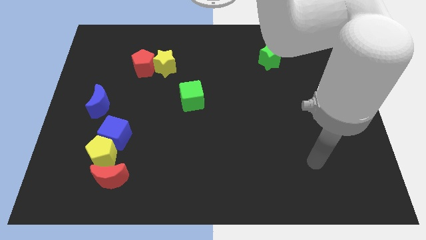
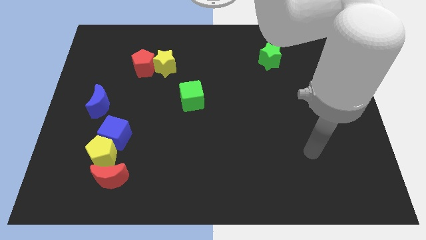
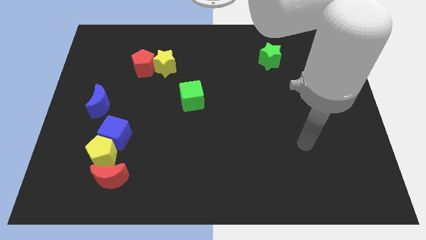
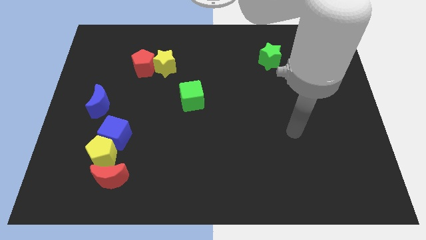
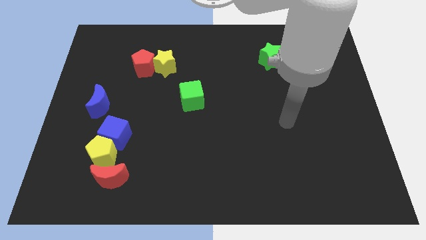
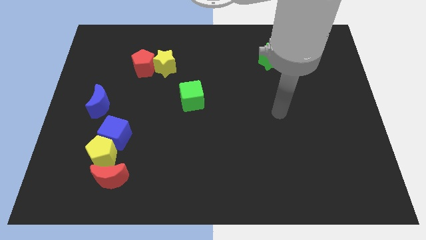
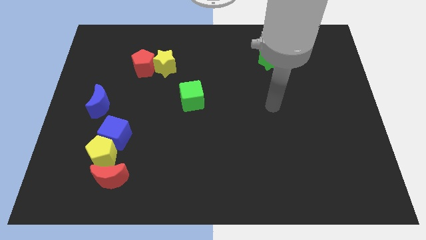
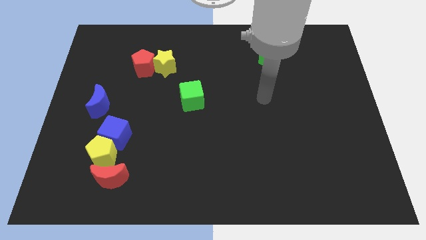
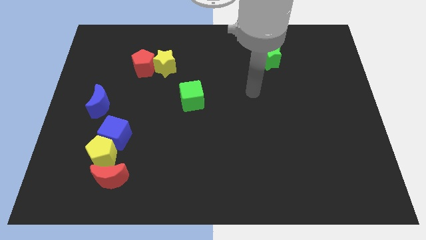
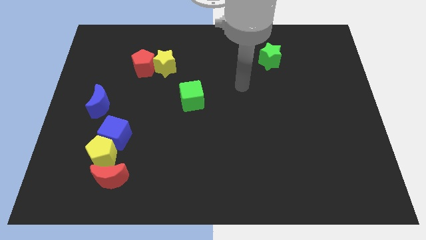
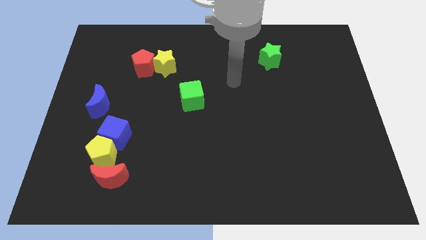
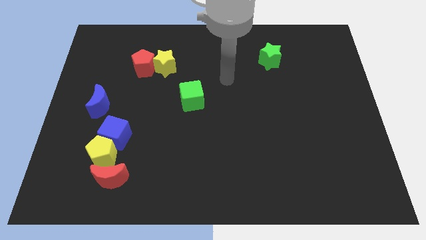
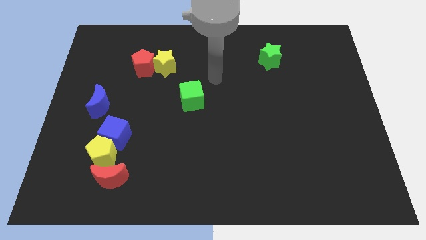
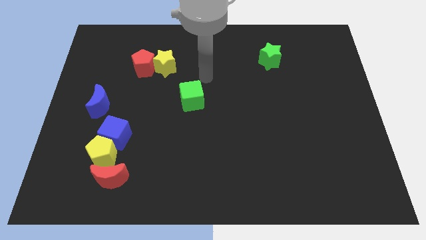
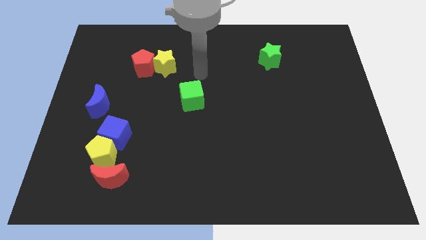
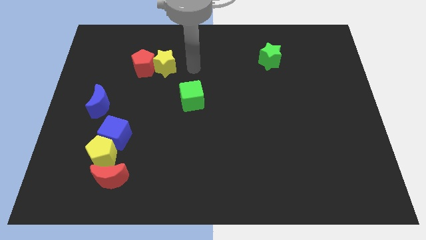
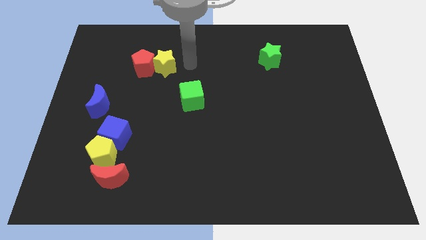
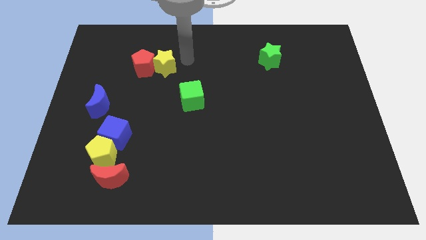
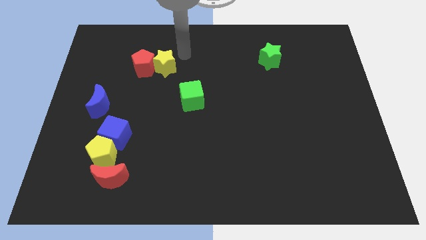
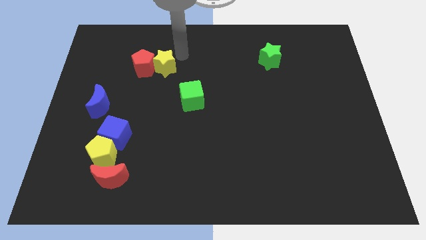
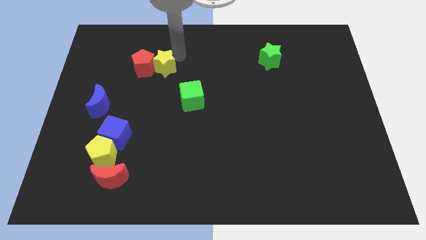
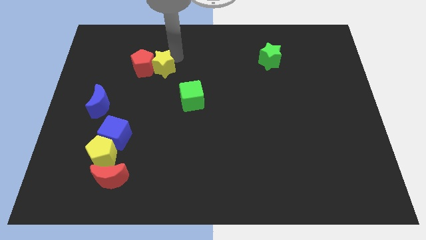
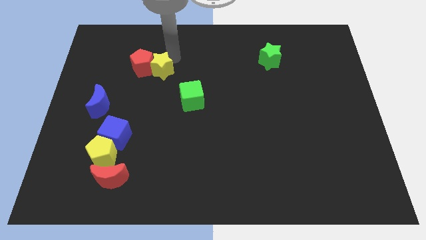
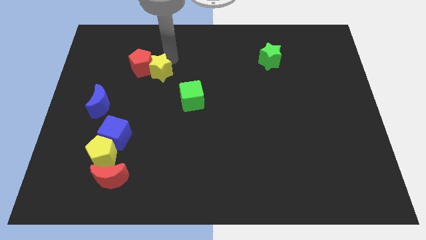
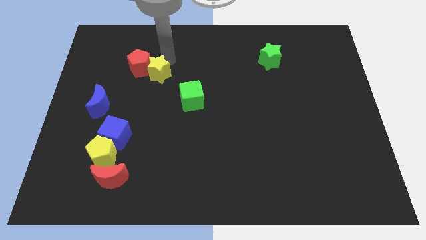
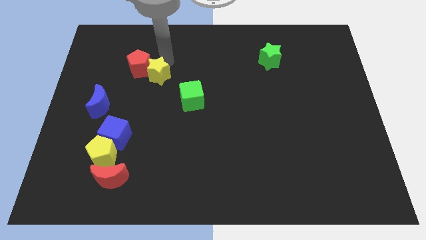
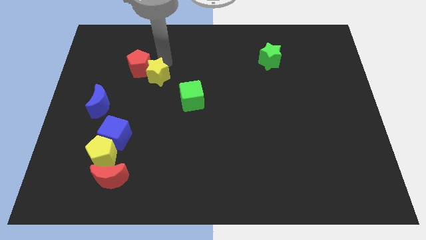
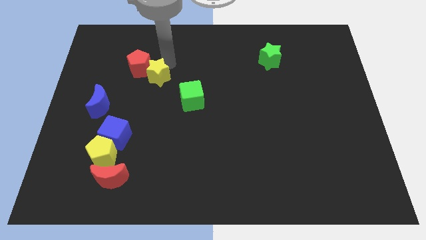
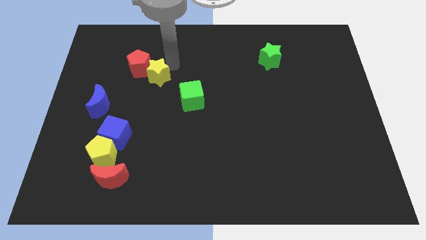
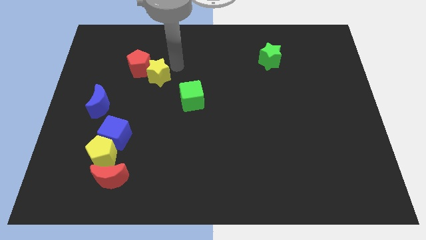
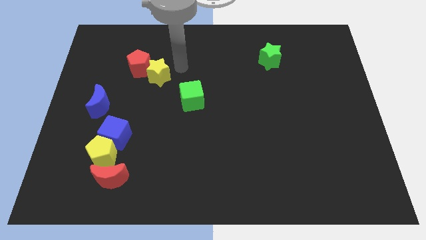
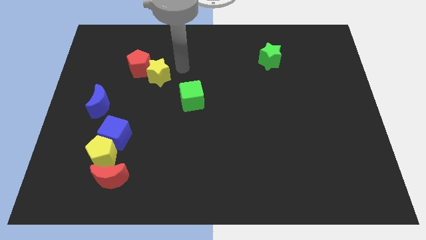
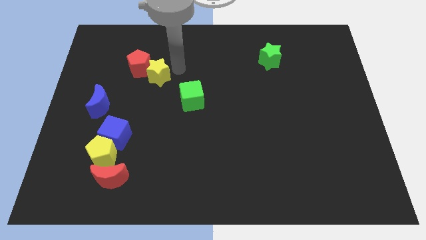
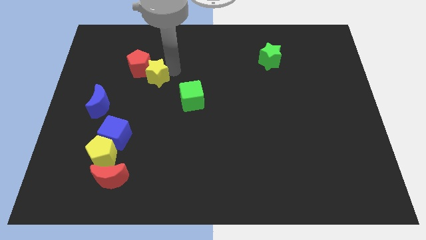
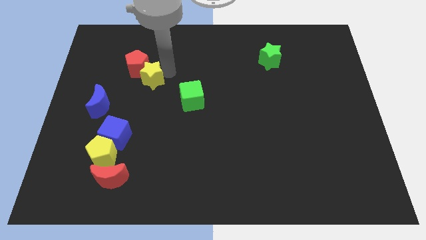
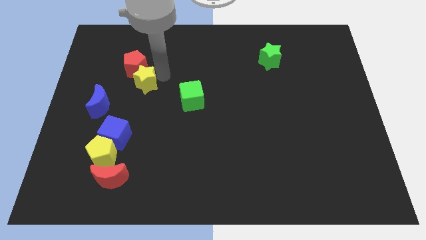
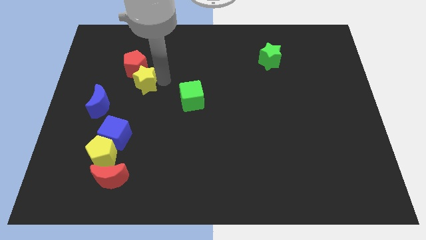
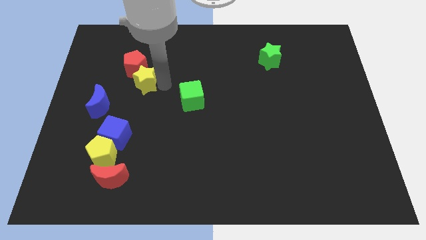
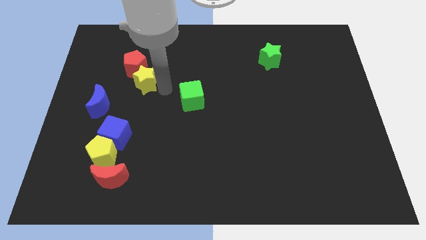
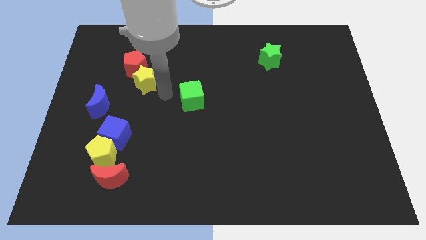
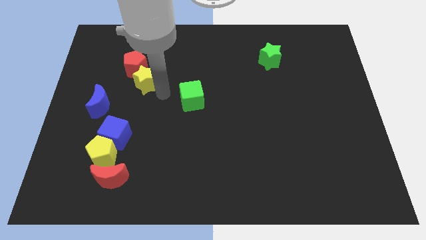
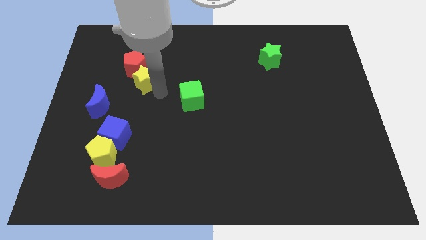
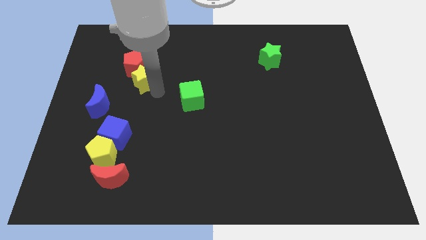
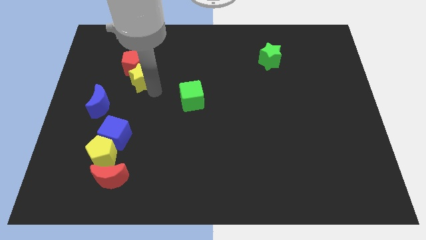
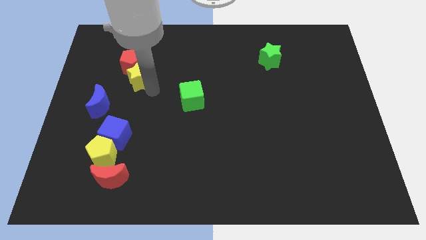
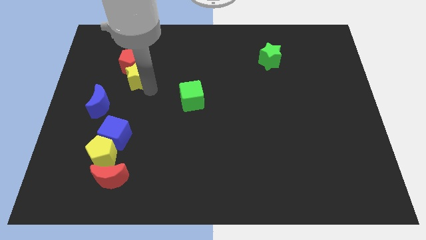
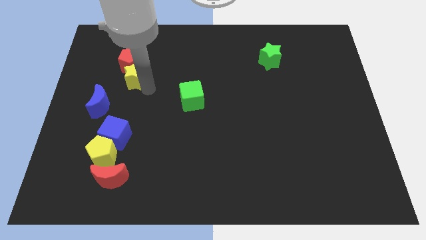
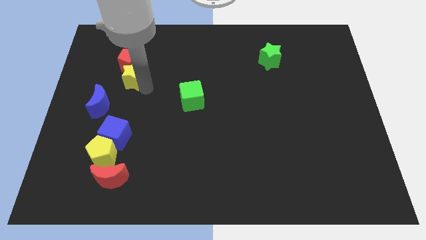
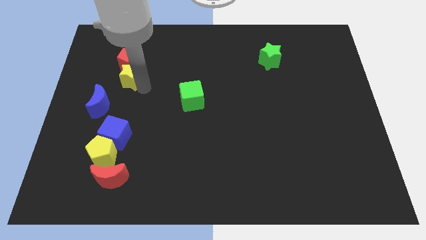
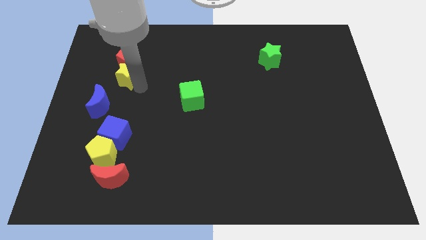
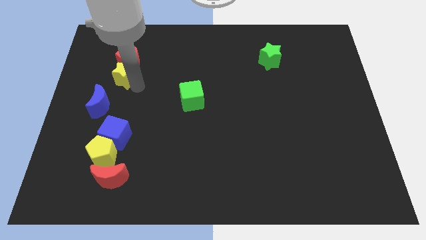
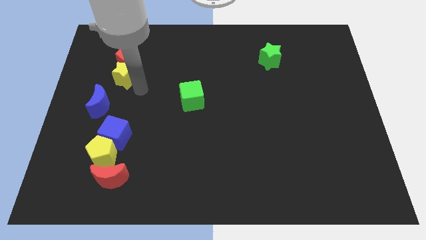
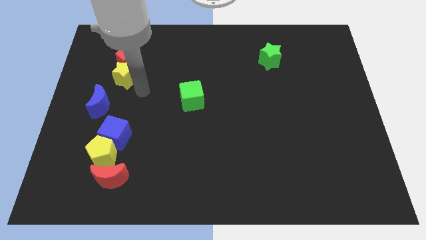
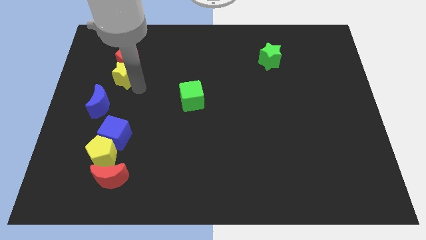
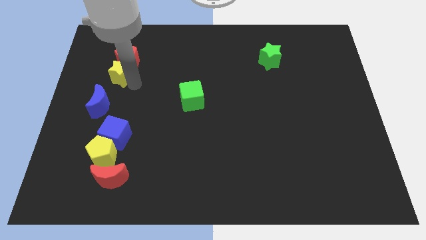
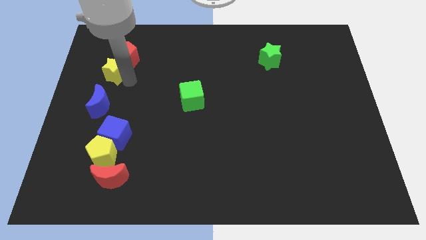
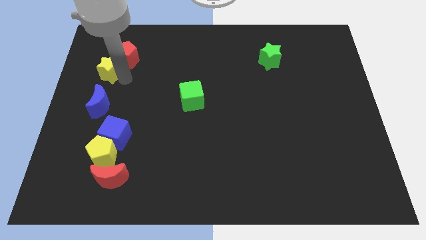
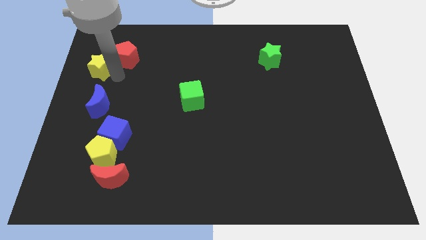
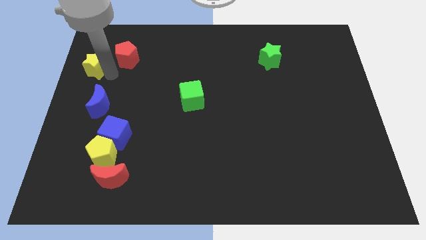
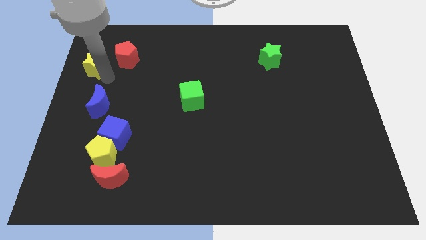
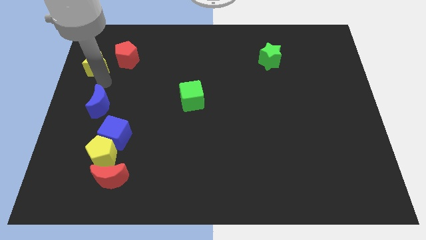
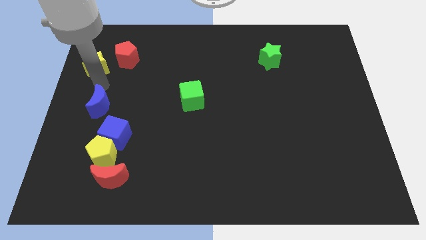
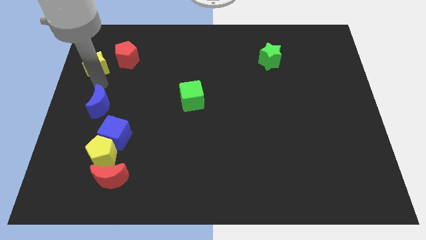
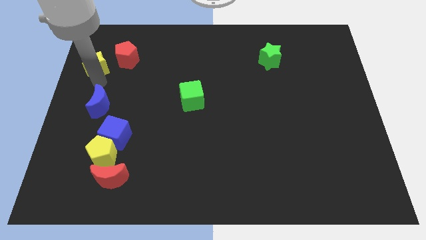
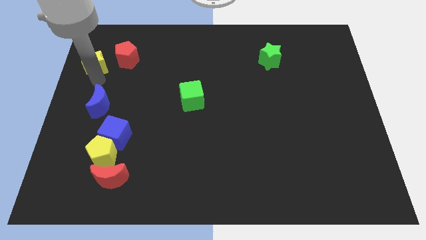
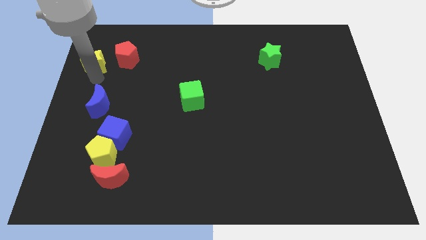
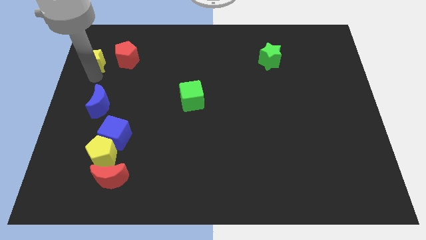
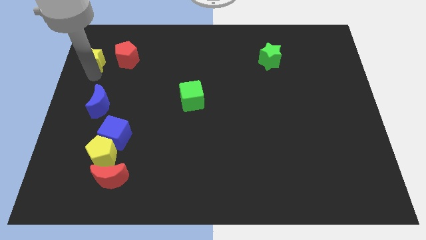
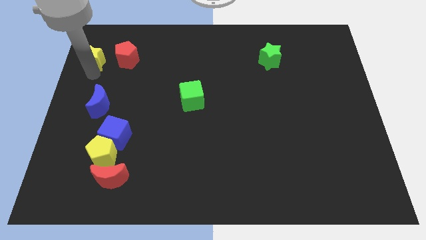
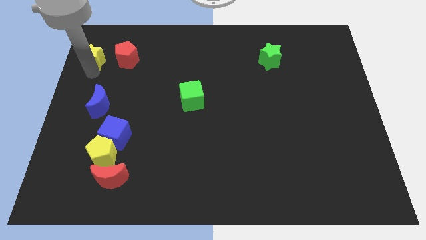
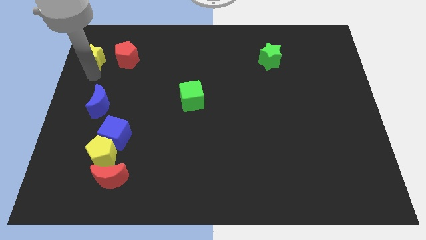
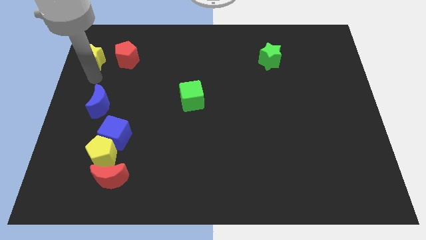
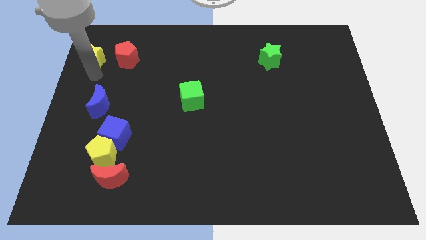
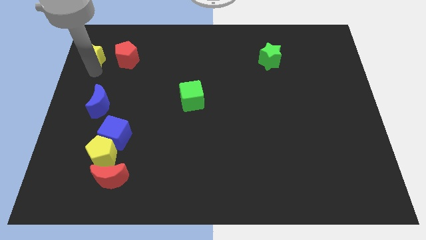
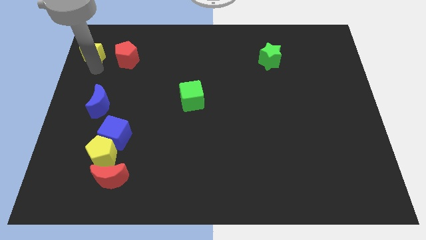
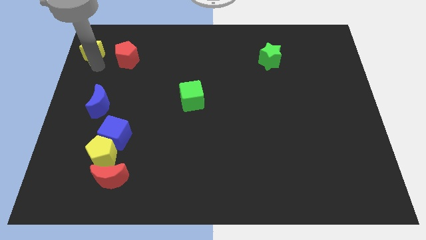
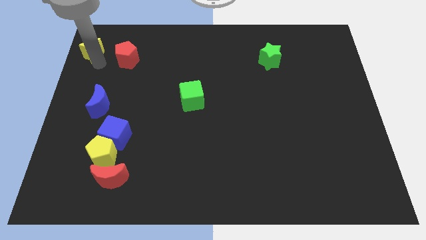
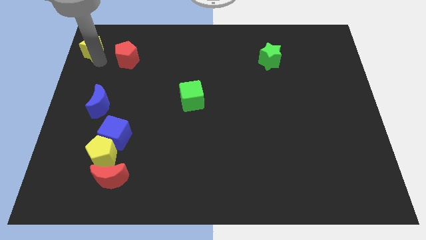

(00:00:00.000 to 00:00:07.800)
move the yellow star to the top left
